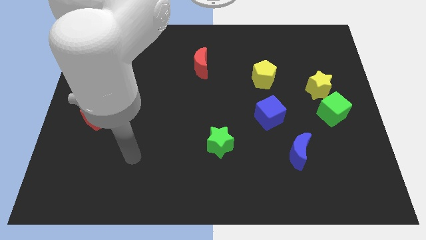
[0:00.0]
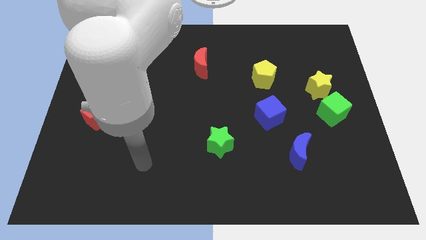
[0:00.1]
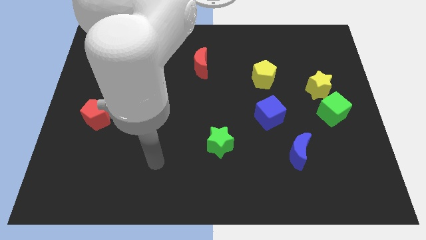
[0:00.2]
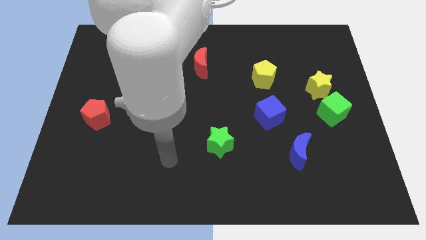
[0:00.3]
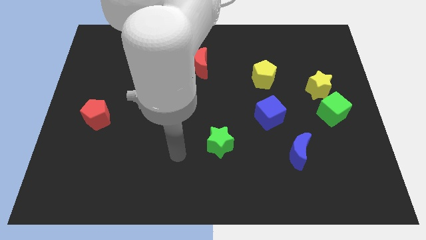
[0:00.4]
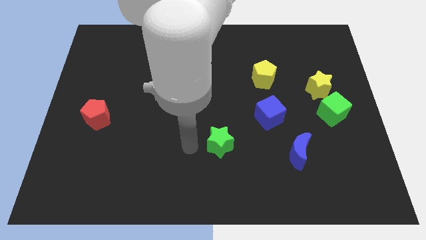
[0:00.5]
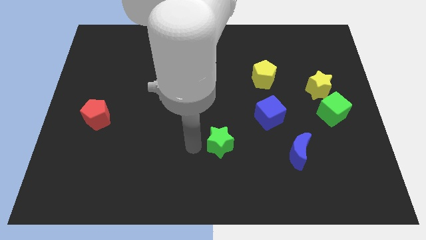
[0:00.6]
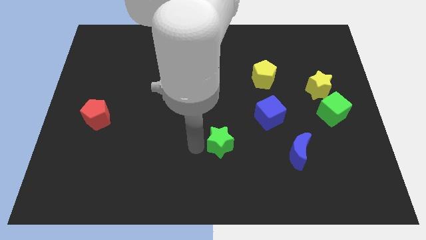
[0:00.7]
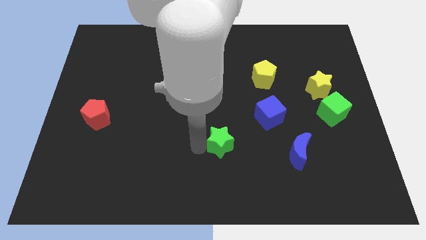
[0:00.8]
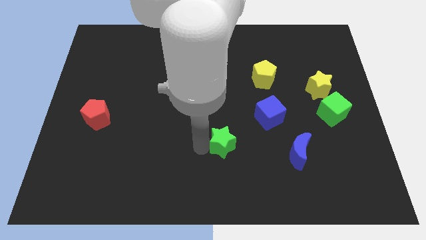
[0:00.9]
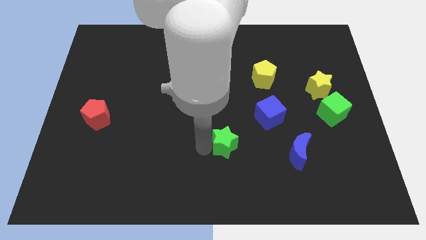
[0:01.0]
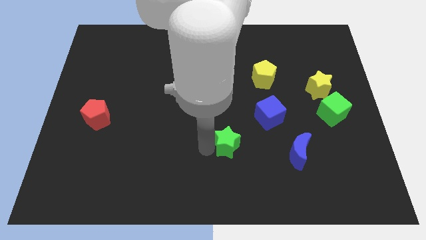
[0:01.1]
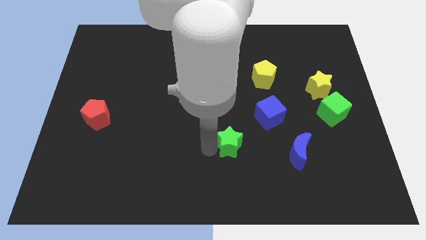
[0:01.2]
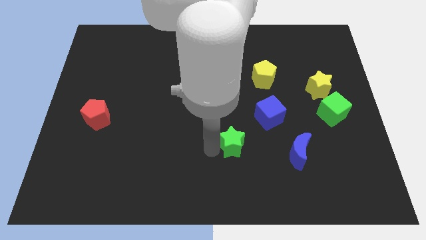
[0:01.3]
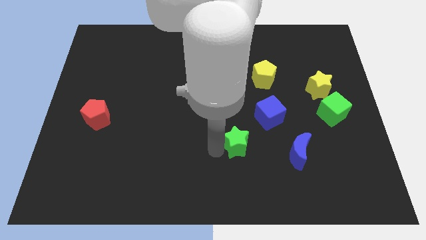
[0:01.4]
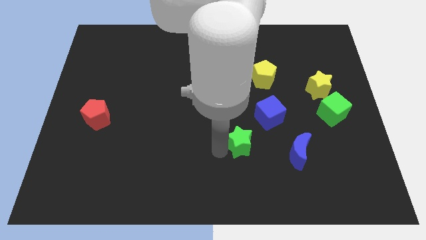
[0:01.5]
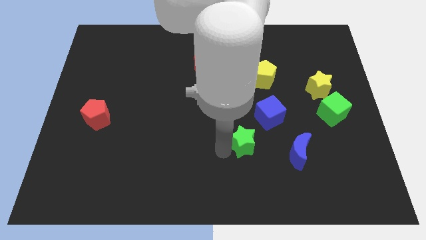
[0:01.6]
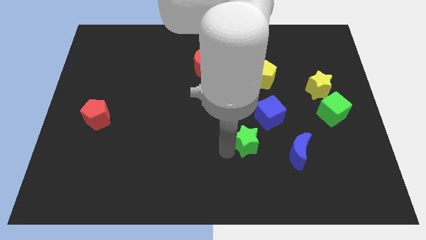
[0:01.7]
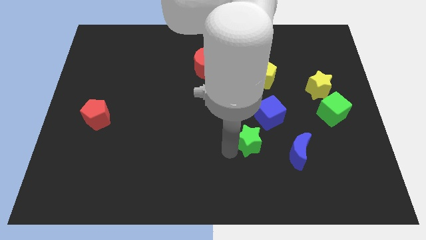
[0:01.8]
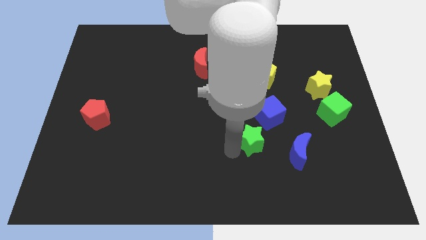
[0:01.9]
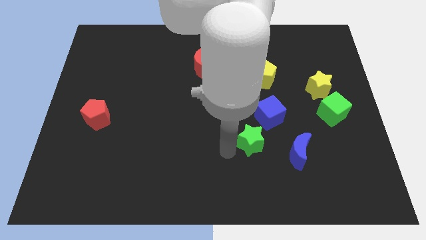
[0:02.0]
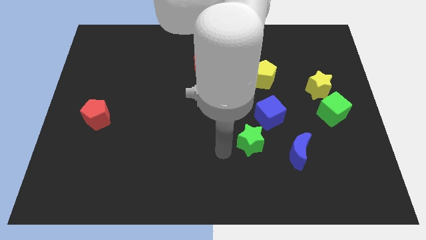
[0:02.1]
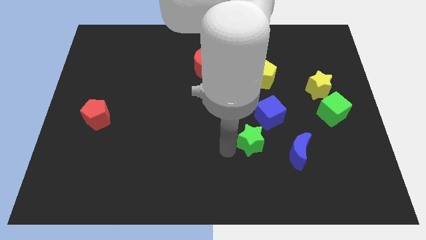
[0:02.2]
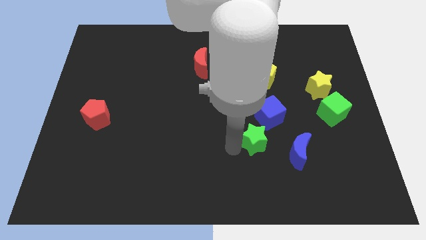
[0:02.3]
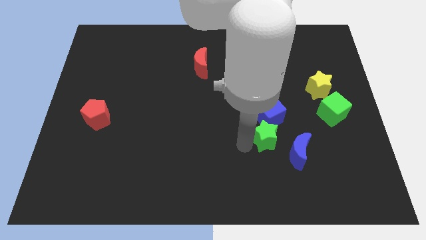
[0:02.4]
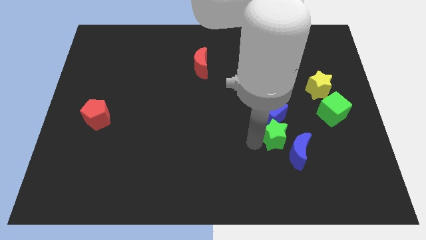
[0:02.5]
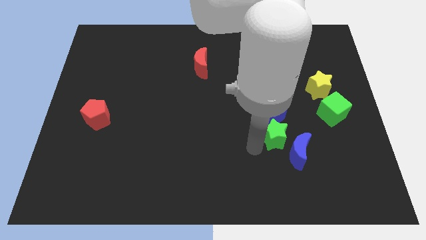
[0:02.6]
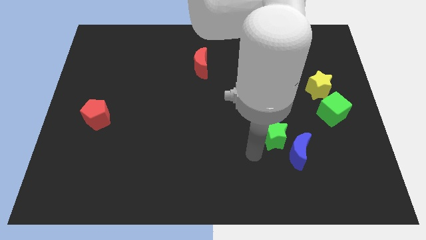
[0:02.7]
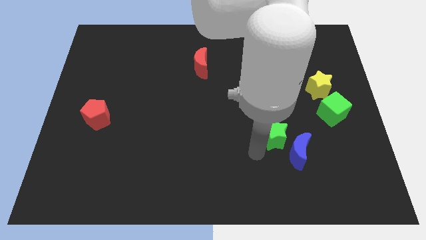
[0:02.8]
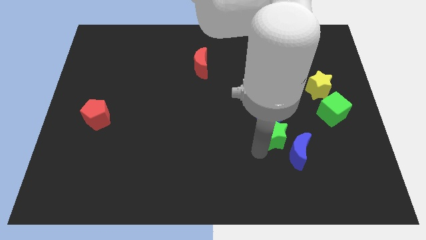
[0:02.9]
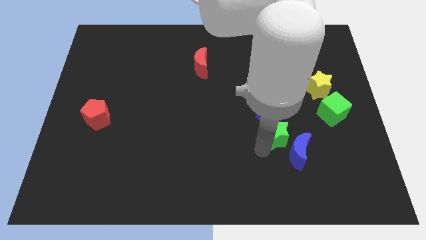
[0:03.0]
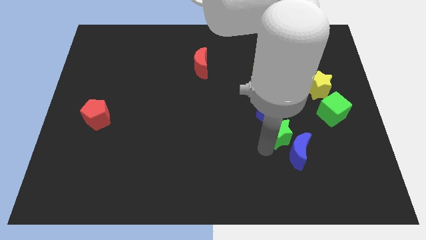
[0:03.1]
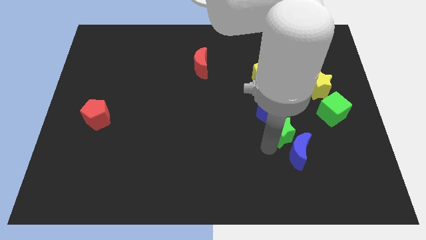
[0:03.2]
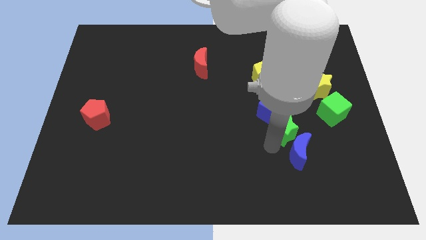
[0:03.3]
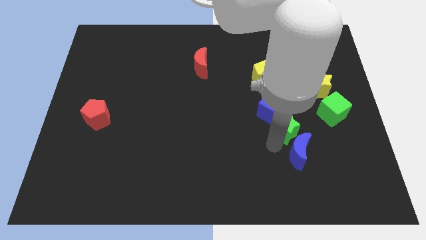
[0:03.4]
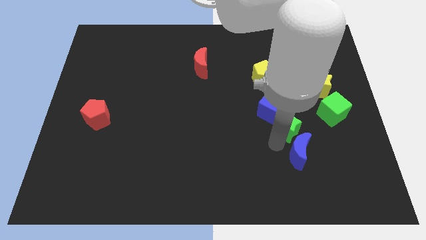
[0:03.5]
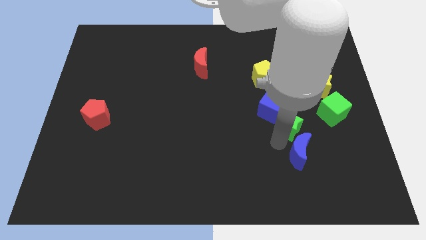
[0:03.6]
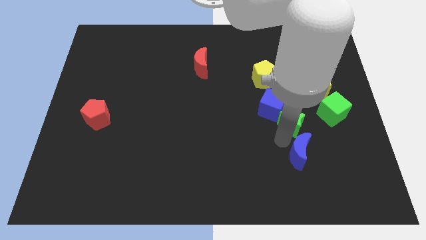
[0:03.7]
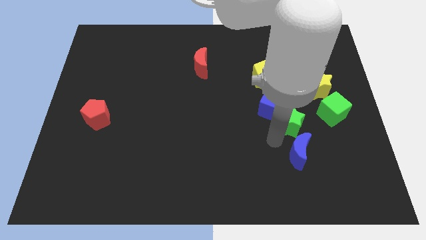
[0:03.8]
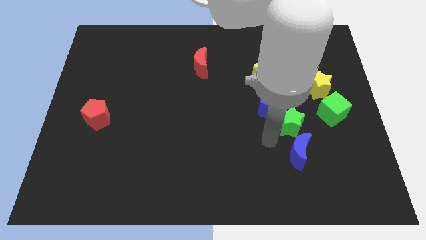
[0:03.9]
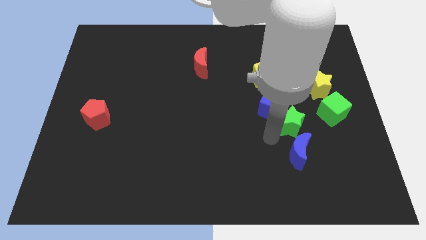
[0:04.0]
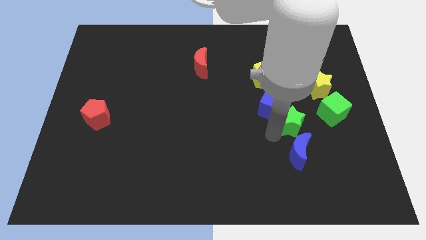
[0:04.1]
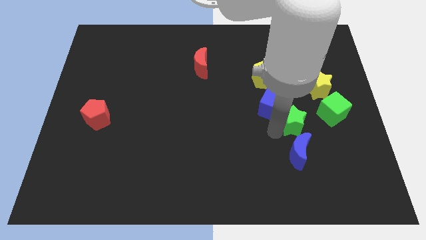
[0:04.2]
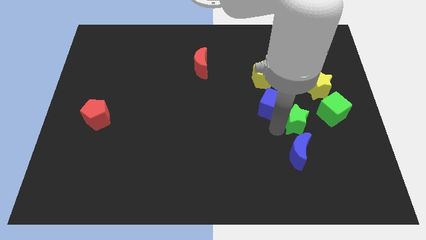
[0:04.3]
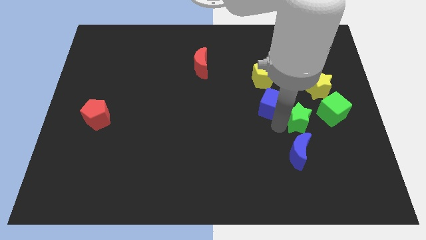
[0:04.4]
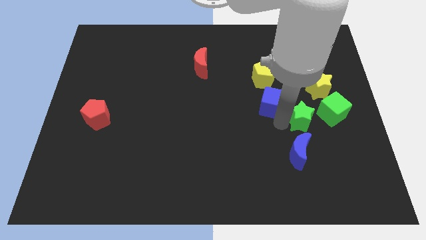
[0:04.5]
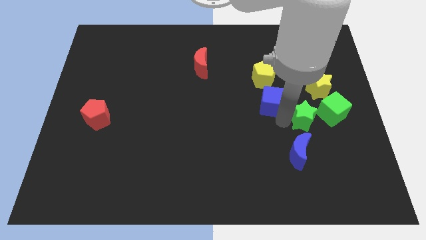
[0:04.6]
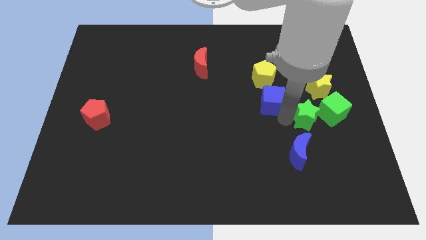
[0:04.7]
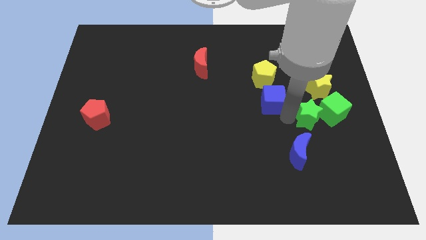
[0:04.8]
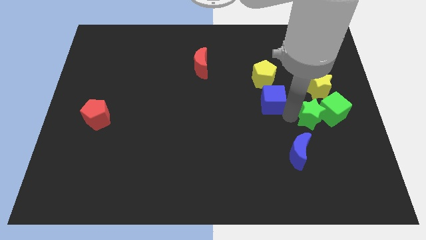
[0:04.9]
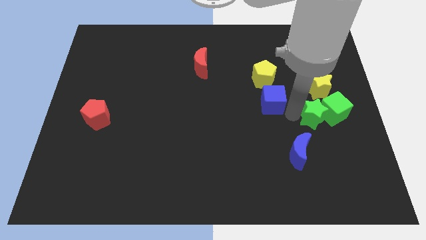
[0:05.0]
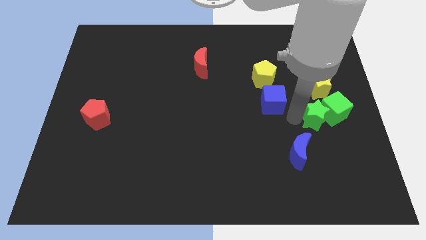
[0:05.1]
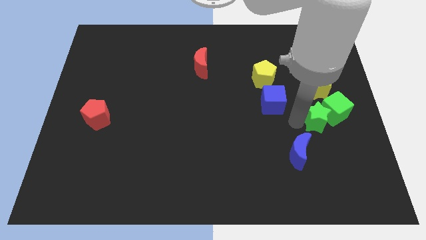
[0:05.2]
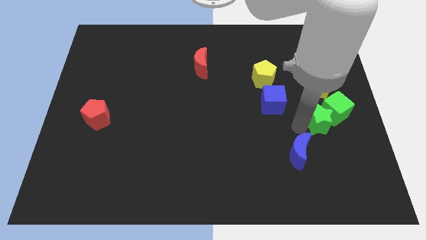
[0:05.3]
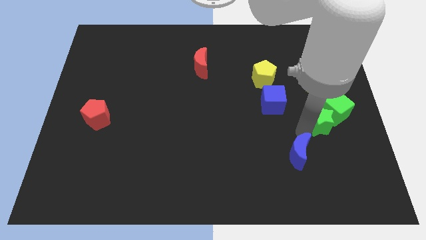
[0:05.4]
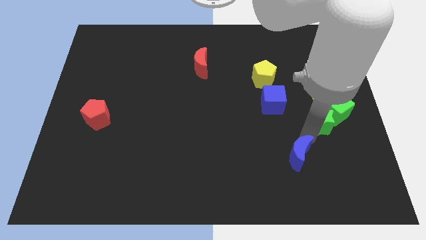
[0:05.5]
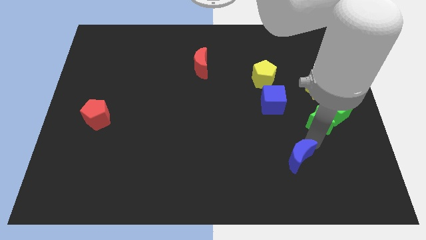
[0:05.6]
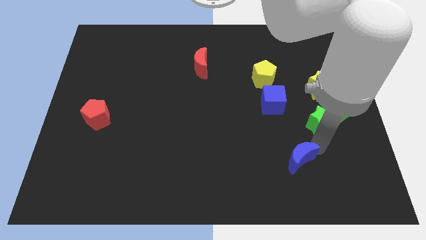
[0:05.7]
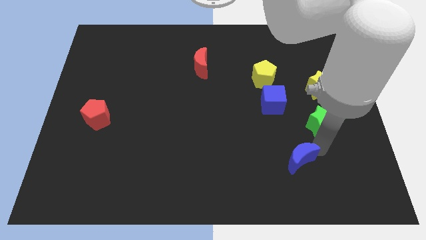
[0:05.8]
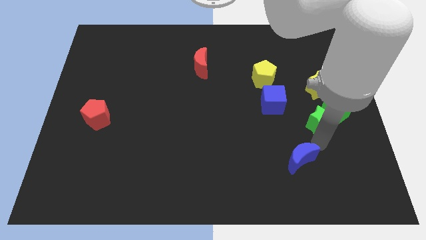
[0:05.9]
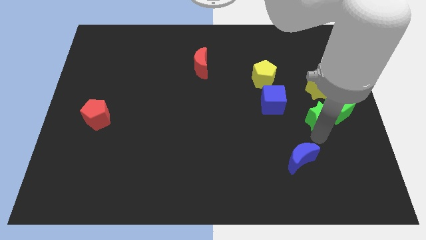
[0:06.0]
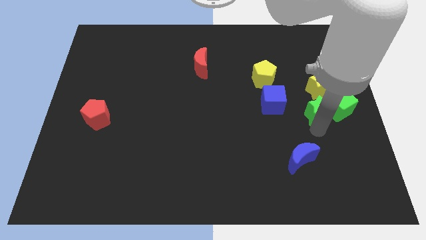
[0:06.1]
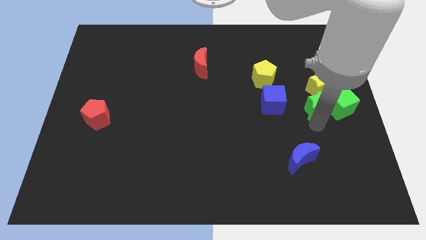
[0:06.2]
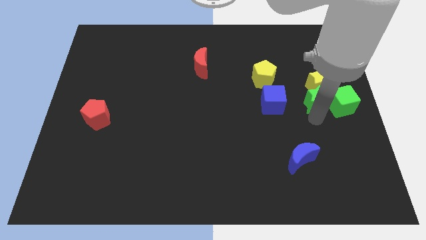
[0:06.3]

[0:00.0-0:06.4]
slide the green star to the yellow star
